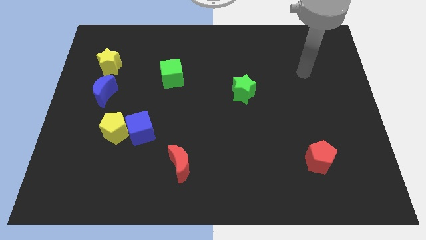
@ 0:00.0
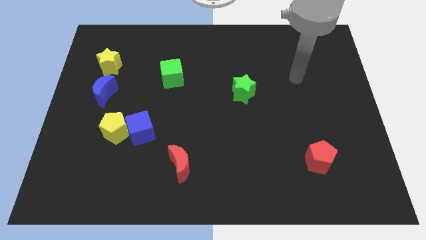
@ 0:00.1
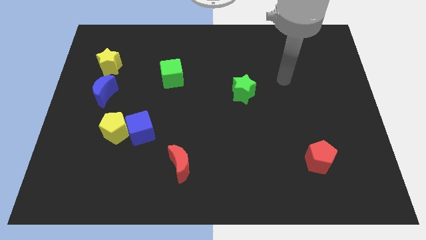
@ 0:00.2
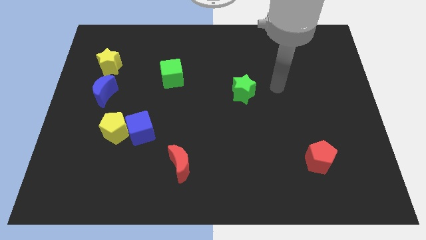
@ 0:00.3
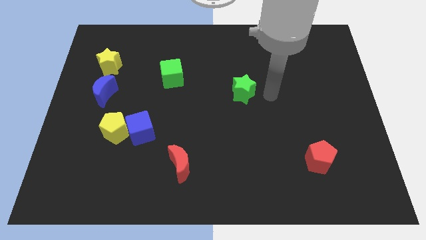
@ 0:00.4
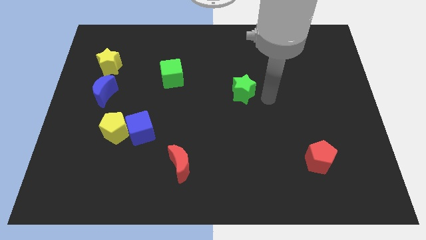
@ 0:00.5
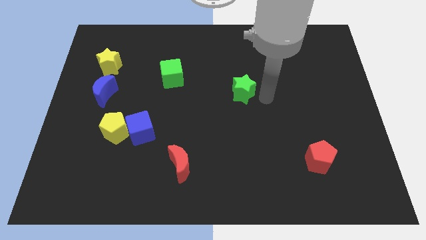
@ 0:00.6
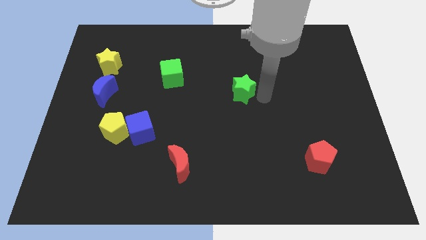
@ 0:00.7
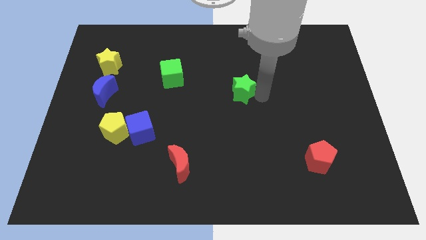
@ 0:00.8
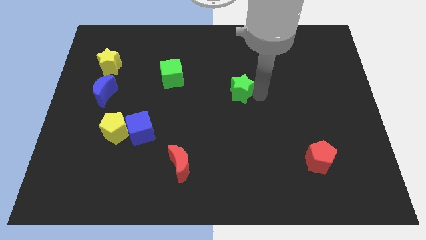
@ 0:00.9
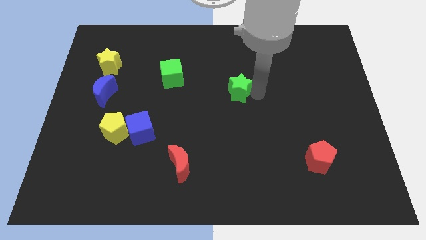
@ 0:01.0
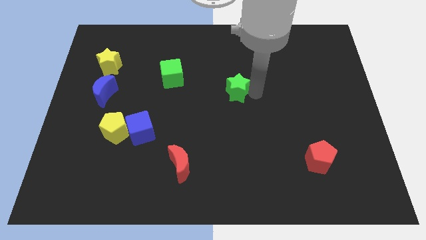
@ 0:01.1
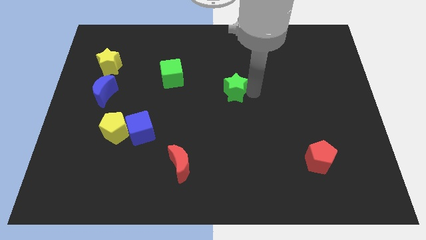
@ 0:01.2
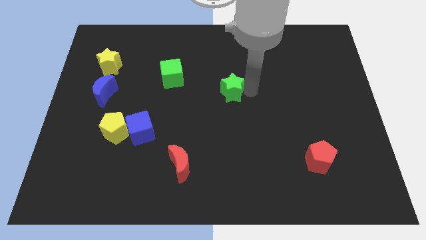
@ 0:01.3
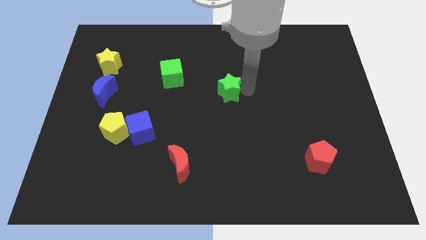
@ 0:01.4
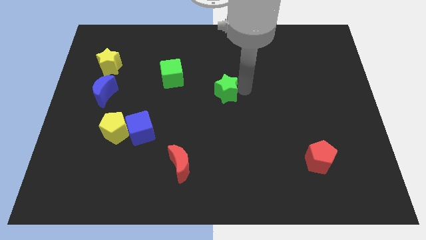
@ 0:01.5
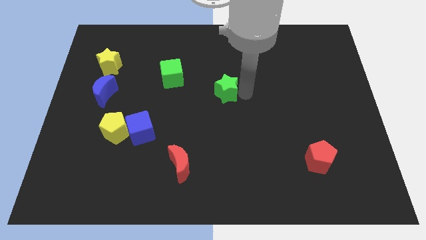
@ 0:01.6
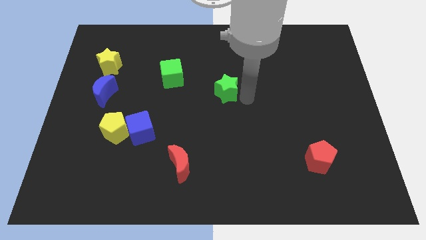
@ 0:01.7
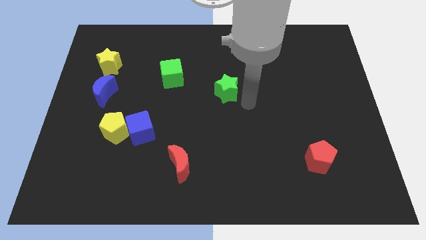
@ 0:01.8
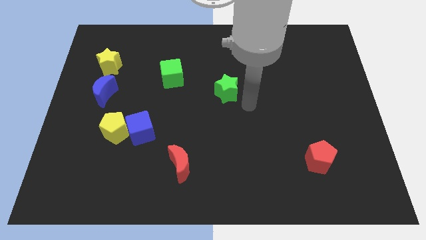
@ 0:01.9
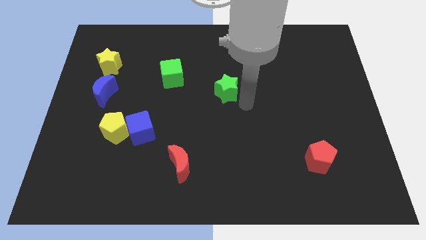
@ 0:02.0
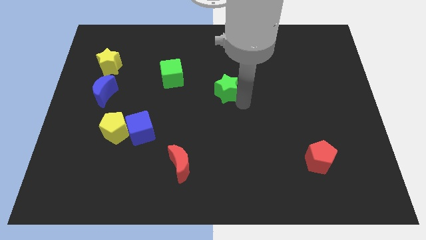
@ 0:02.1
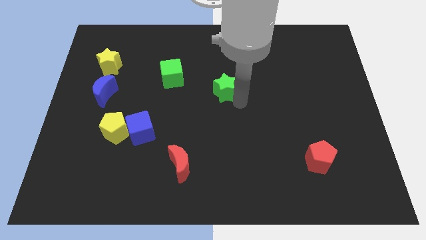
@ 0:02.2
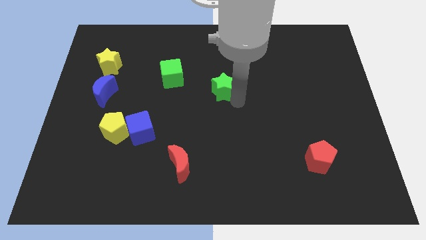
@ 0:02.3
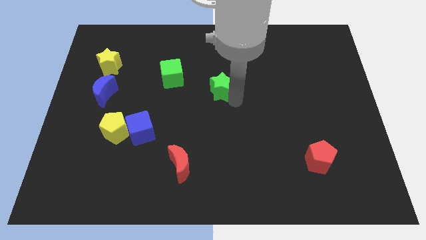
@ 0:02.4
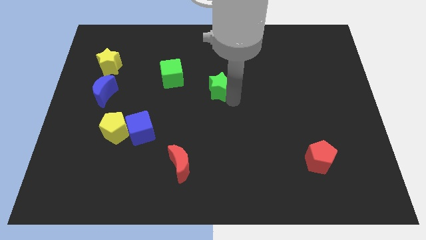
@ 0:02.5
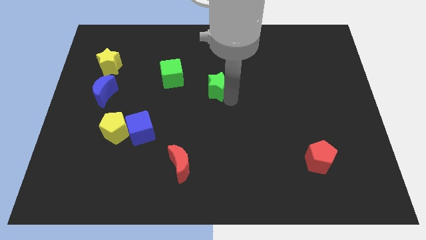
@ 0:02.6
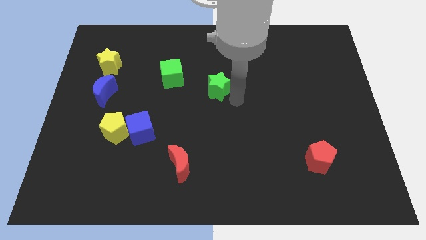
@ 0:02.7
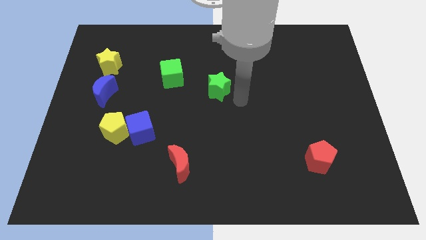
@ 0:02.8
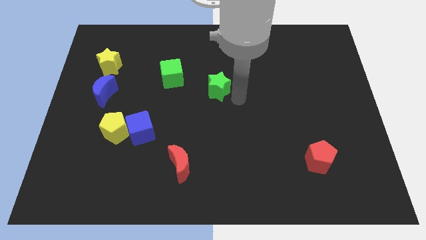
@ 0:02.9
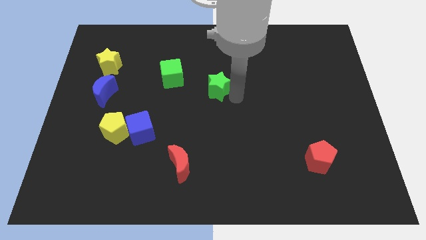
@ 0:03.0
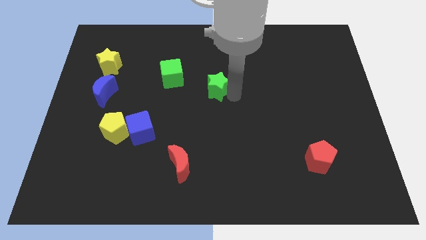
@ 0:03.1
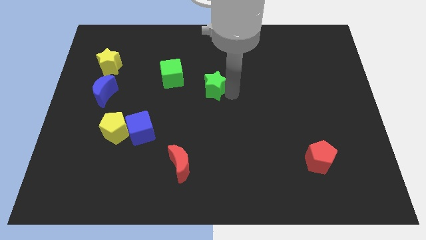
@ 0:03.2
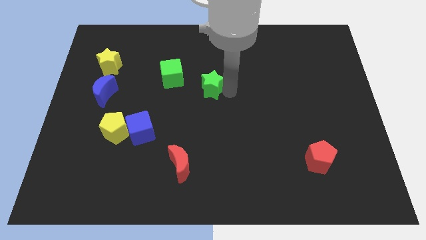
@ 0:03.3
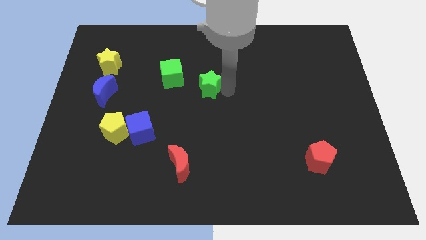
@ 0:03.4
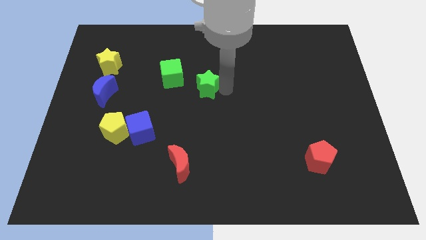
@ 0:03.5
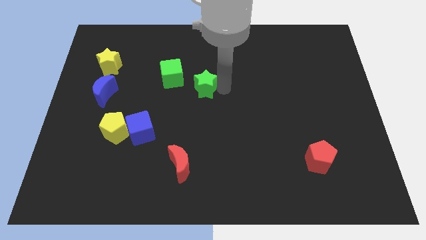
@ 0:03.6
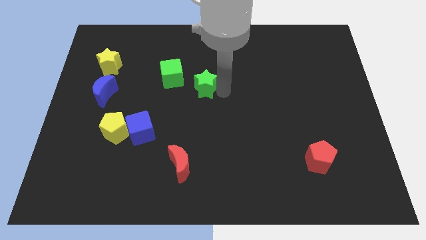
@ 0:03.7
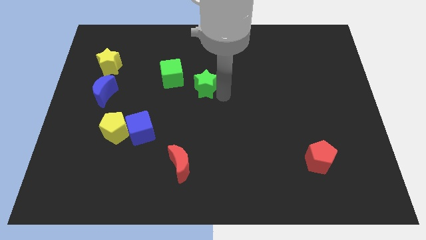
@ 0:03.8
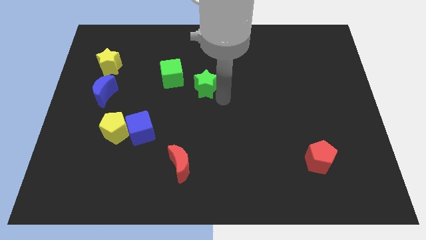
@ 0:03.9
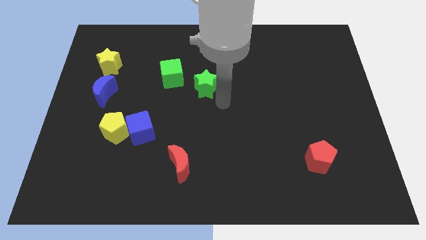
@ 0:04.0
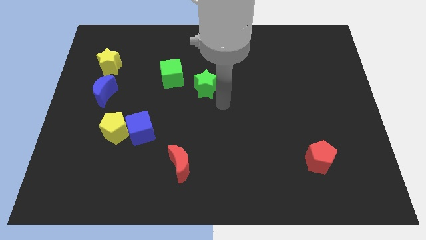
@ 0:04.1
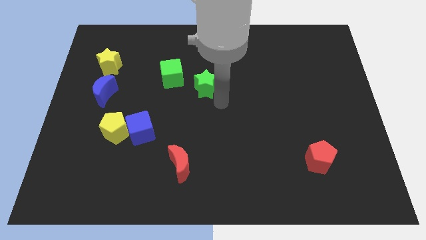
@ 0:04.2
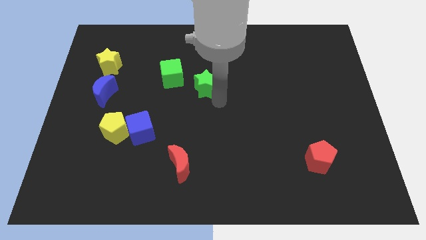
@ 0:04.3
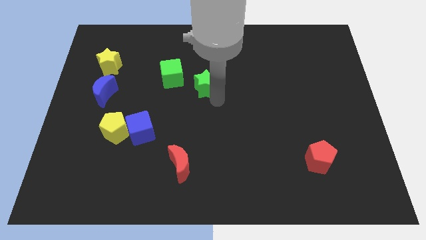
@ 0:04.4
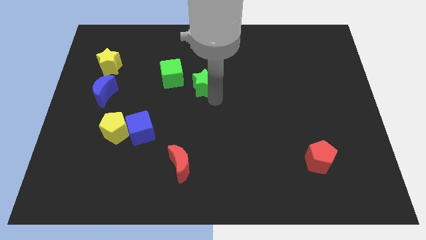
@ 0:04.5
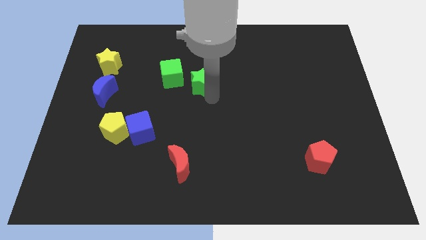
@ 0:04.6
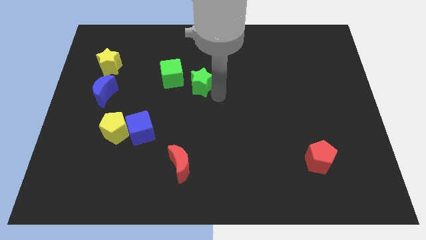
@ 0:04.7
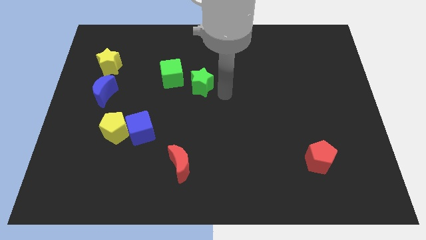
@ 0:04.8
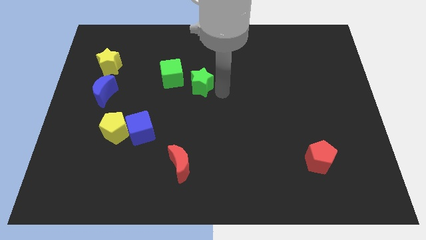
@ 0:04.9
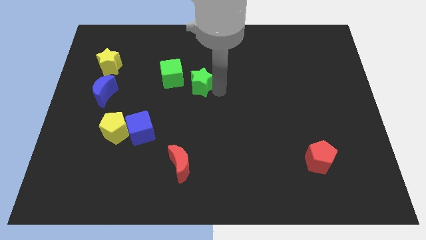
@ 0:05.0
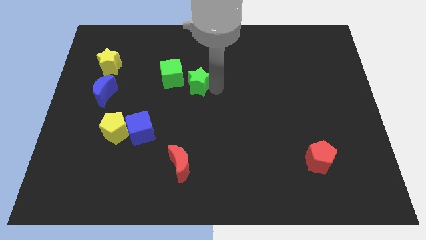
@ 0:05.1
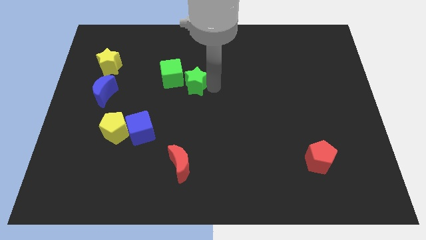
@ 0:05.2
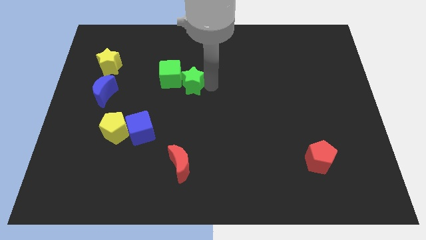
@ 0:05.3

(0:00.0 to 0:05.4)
slide the green star to the green cube

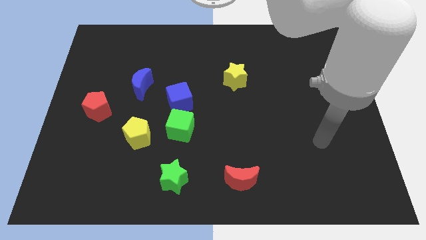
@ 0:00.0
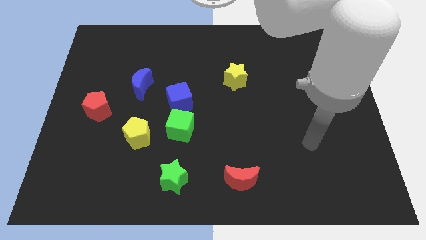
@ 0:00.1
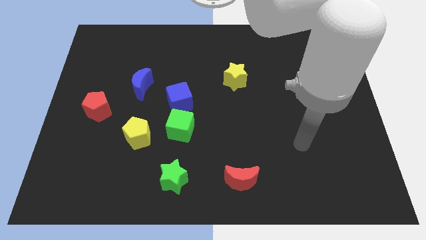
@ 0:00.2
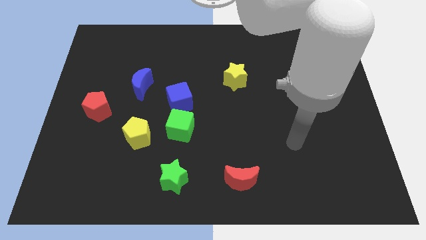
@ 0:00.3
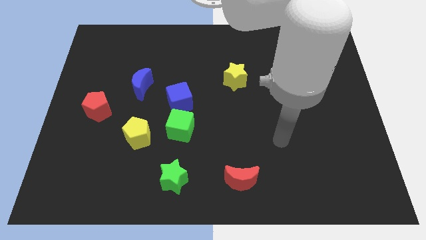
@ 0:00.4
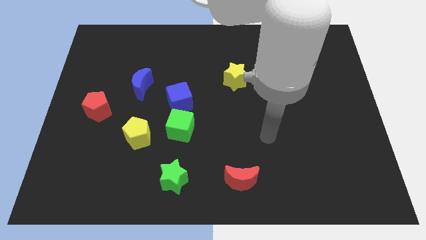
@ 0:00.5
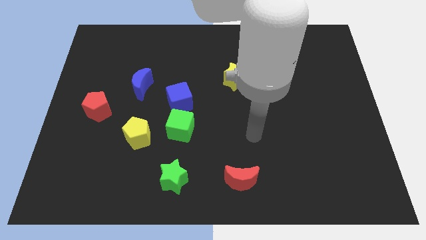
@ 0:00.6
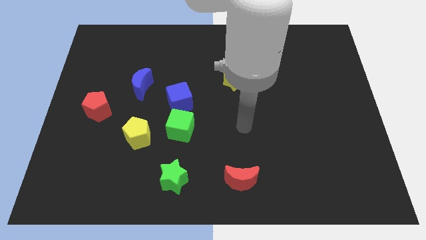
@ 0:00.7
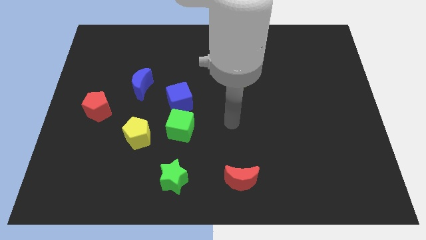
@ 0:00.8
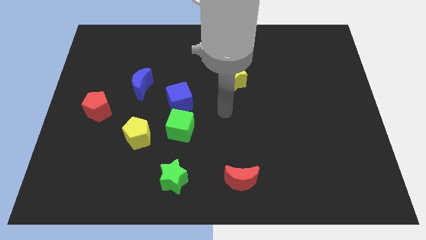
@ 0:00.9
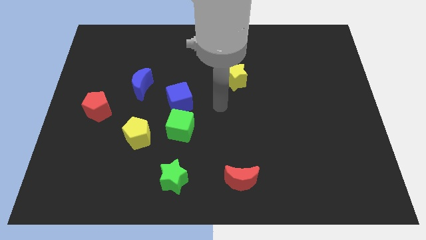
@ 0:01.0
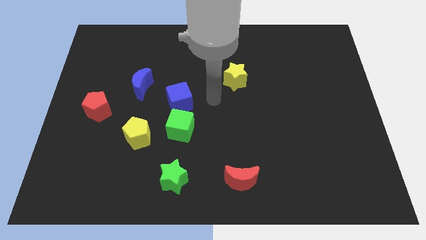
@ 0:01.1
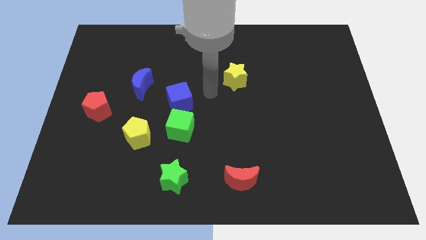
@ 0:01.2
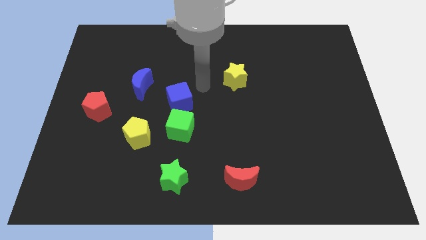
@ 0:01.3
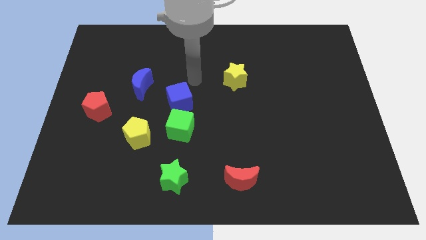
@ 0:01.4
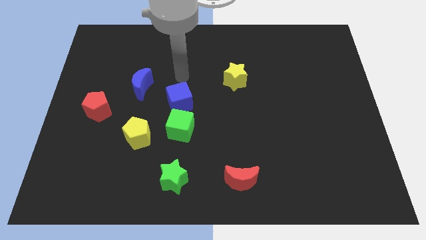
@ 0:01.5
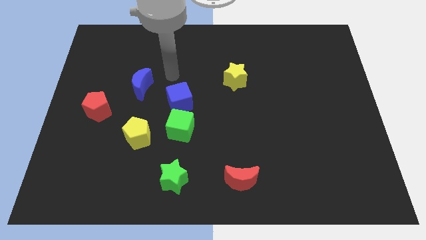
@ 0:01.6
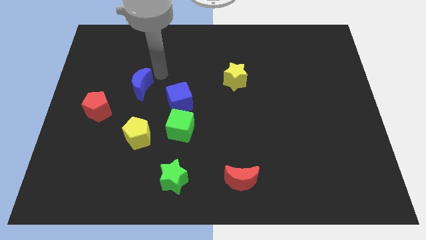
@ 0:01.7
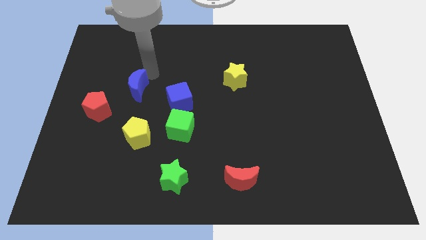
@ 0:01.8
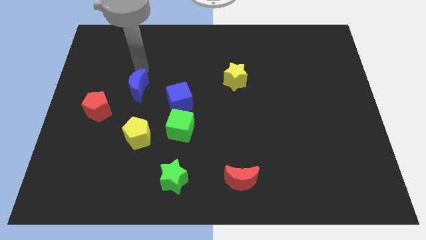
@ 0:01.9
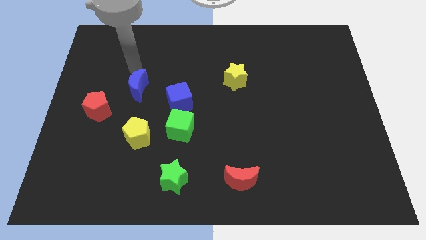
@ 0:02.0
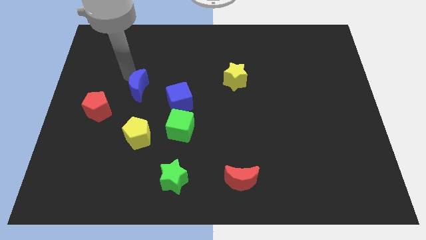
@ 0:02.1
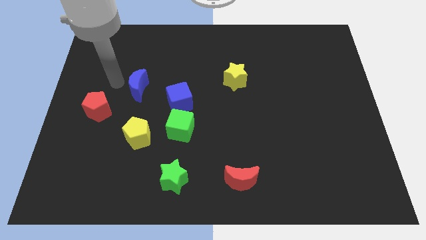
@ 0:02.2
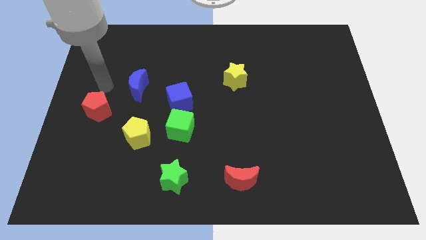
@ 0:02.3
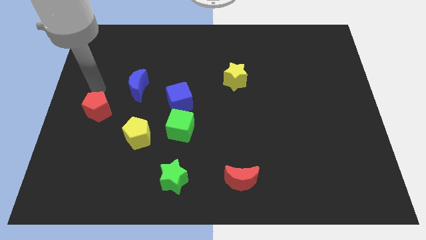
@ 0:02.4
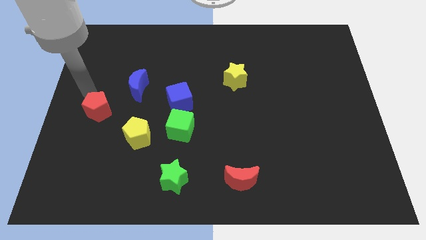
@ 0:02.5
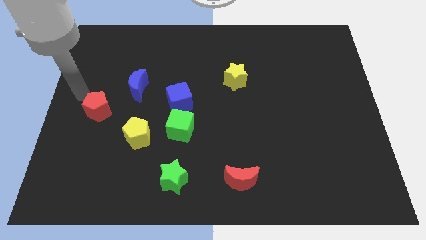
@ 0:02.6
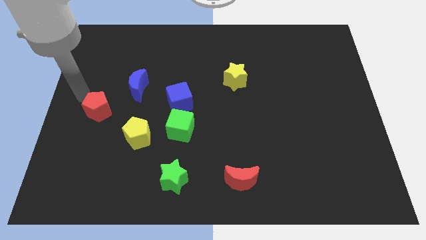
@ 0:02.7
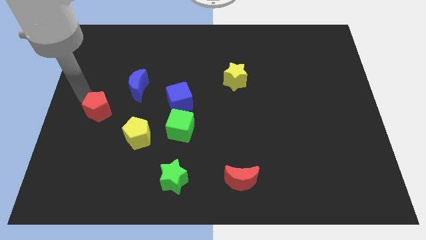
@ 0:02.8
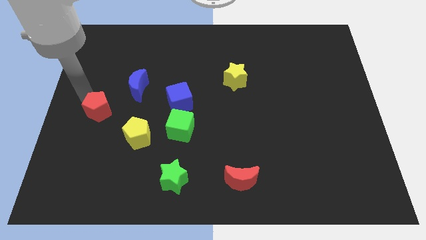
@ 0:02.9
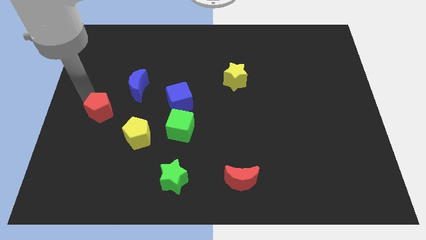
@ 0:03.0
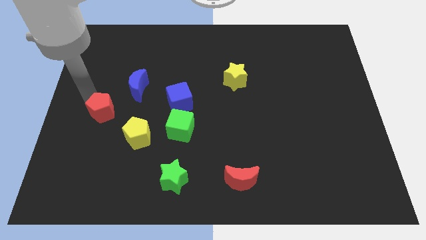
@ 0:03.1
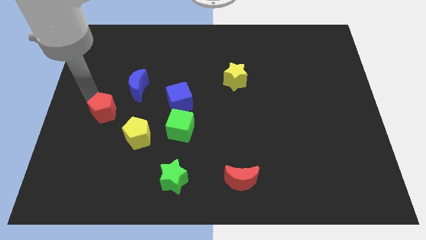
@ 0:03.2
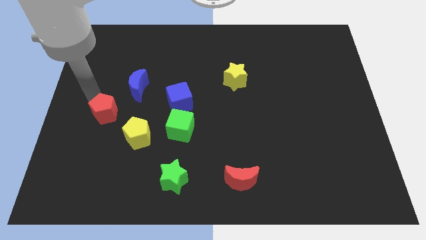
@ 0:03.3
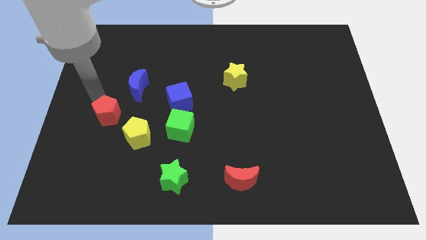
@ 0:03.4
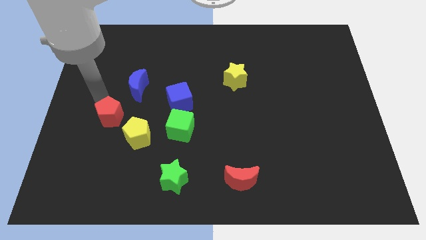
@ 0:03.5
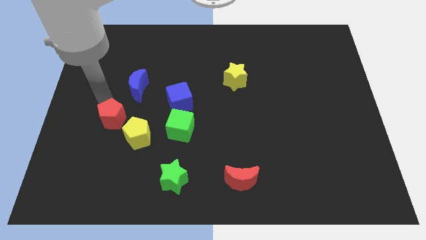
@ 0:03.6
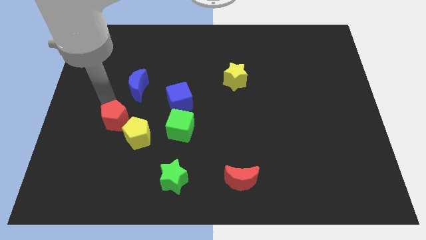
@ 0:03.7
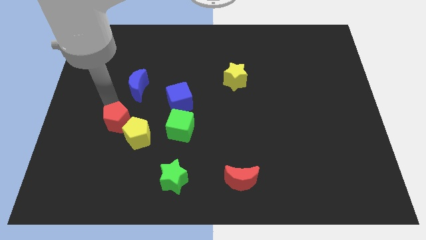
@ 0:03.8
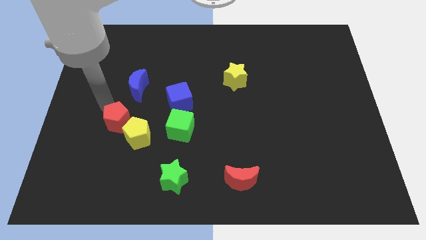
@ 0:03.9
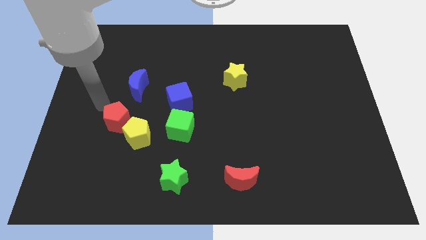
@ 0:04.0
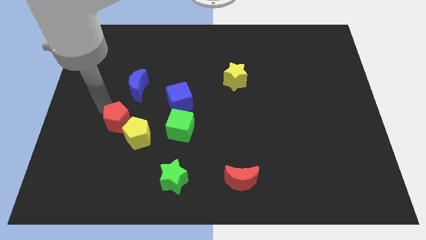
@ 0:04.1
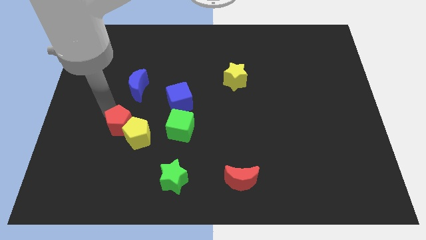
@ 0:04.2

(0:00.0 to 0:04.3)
push the red pentagon close to the yellow pentagon
